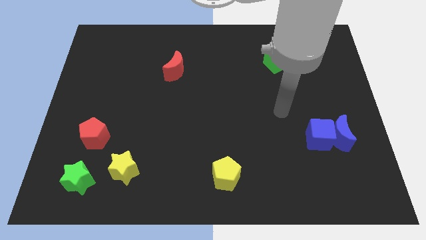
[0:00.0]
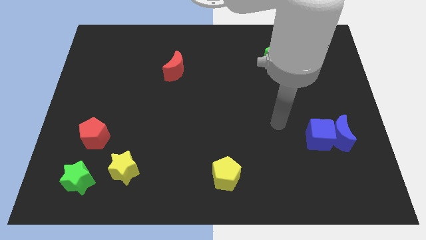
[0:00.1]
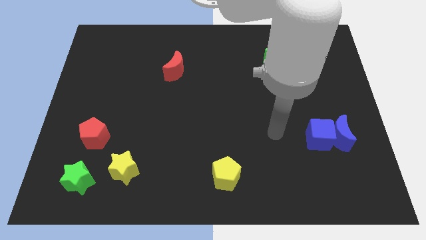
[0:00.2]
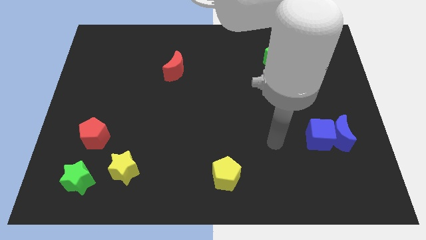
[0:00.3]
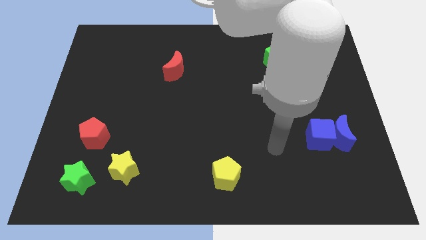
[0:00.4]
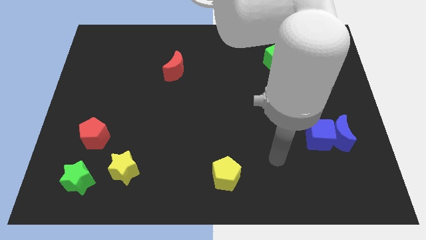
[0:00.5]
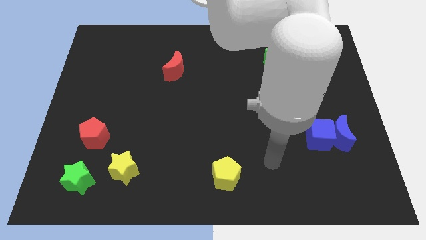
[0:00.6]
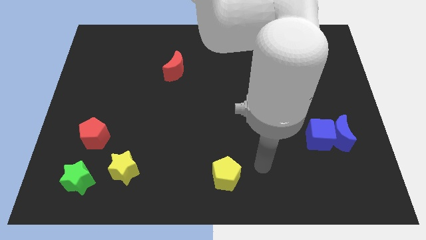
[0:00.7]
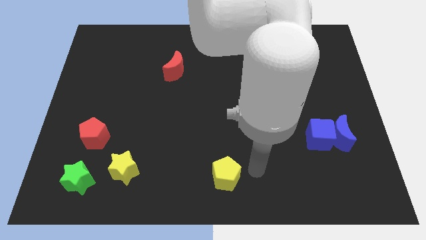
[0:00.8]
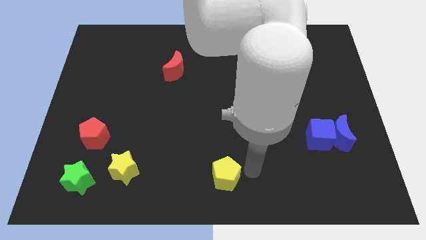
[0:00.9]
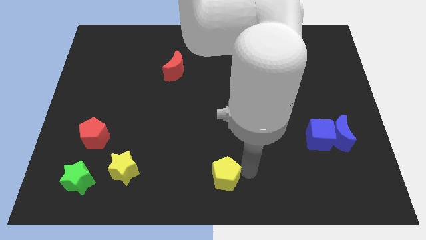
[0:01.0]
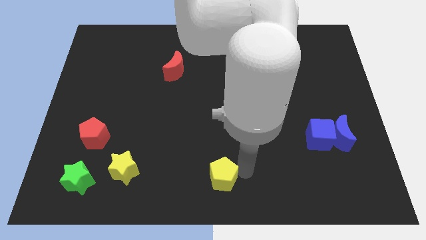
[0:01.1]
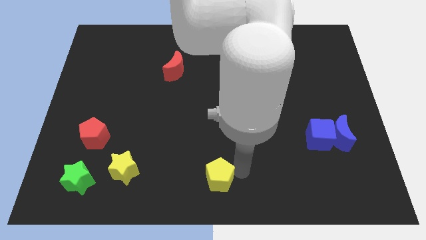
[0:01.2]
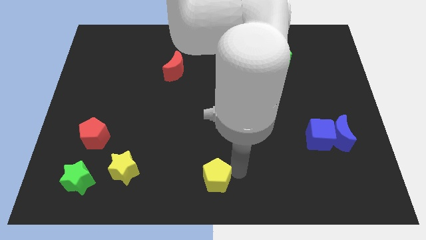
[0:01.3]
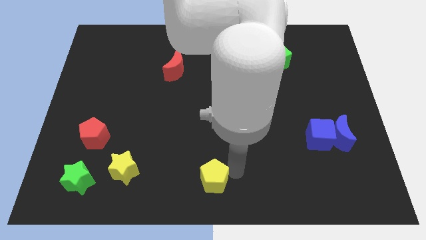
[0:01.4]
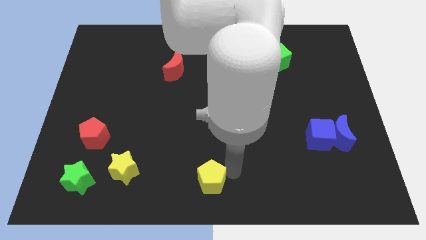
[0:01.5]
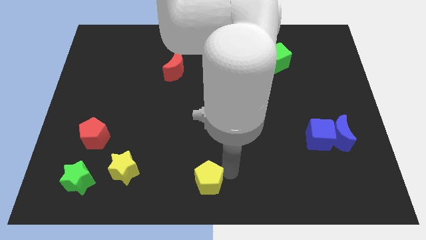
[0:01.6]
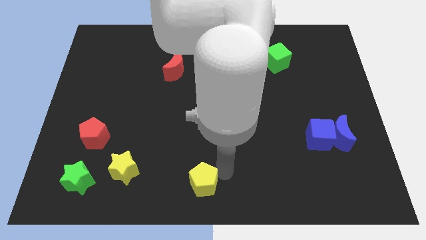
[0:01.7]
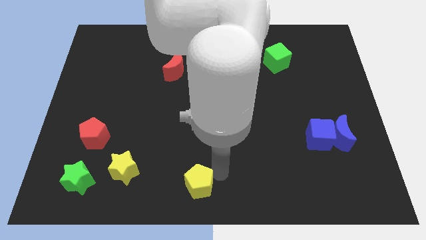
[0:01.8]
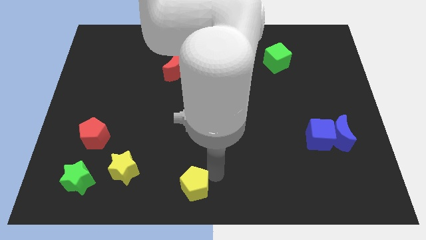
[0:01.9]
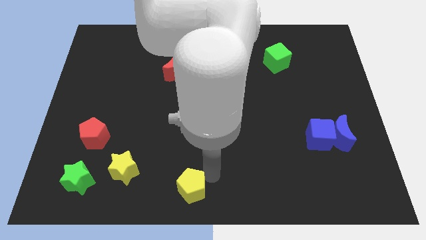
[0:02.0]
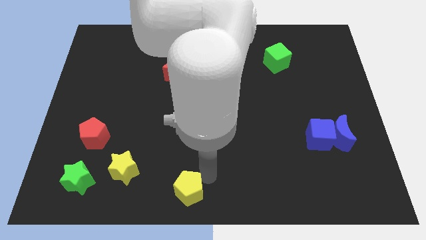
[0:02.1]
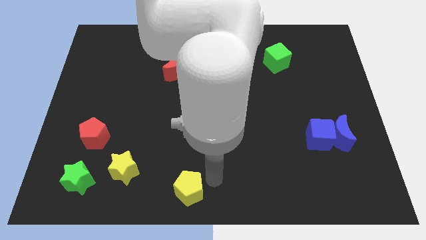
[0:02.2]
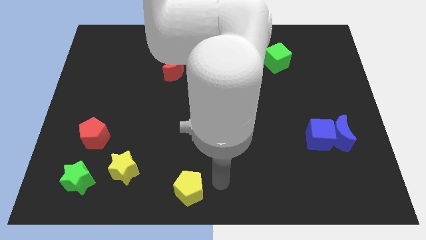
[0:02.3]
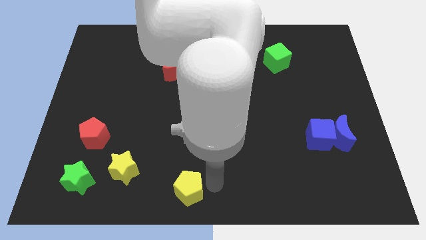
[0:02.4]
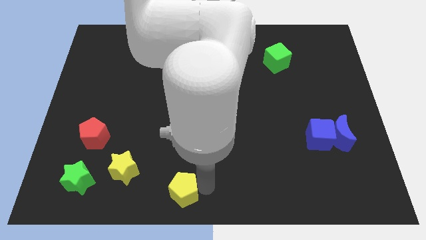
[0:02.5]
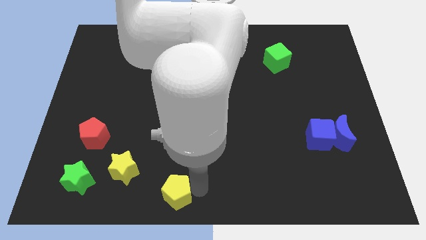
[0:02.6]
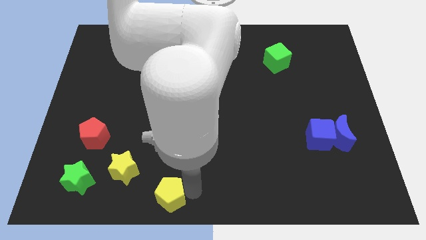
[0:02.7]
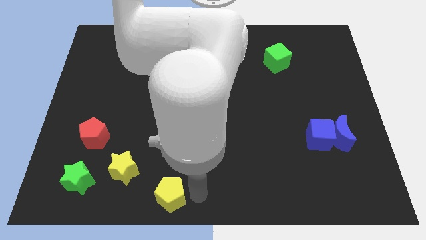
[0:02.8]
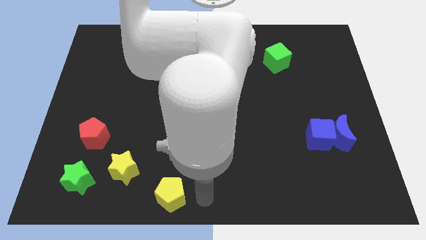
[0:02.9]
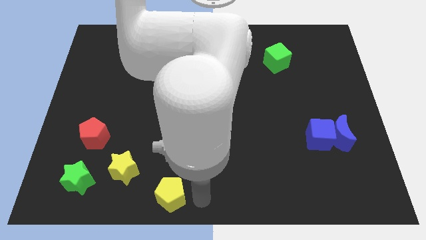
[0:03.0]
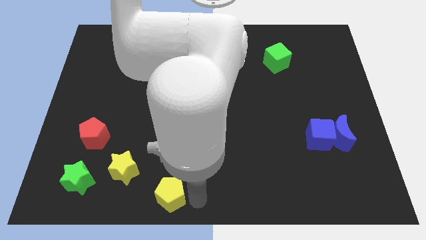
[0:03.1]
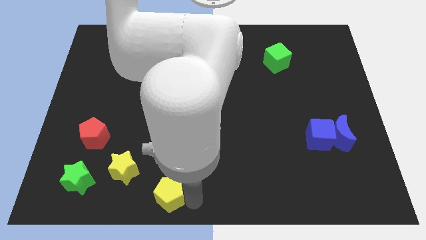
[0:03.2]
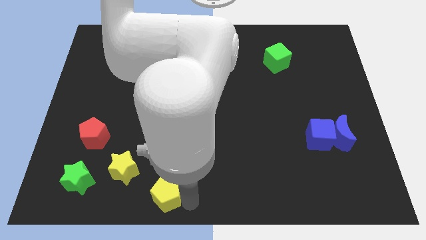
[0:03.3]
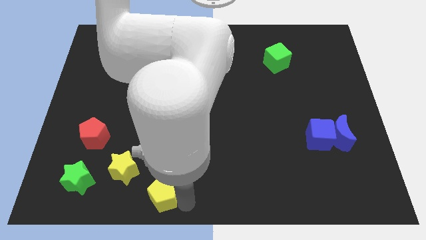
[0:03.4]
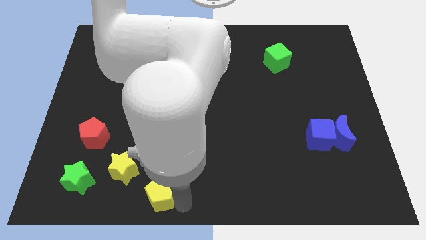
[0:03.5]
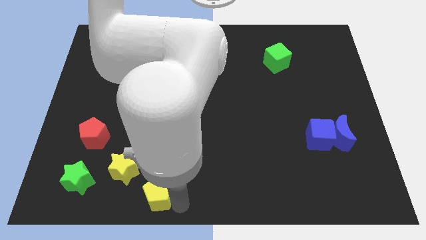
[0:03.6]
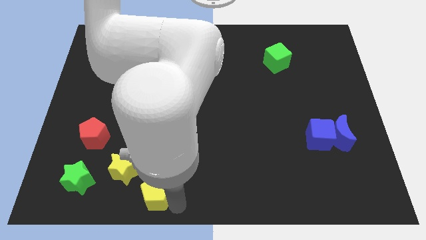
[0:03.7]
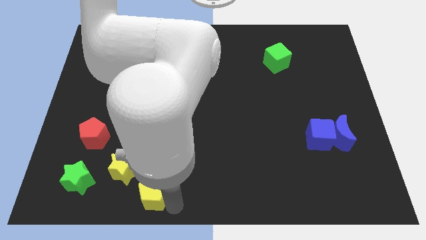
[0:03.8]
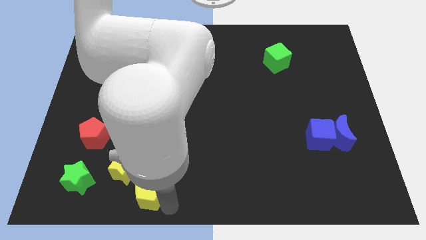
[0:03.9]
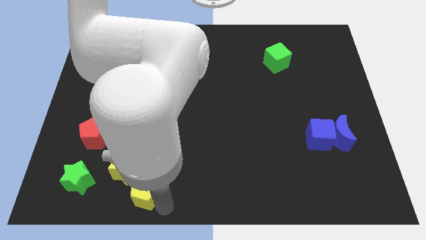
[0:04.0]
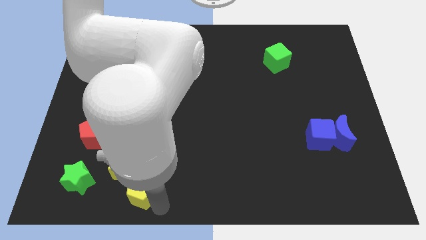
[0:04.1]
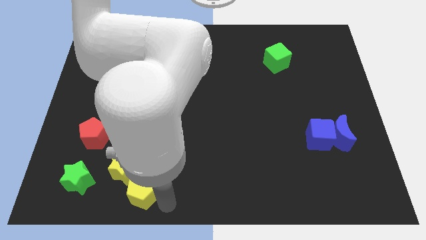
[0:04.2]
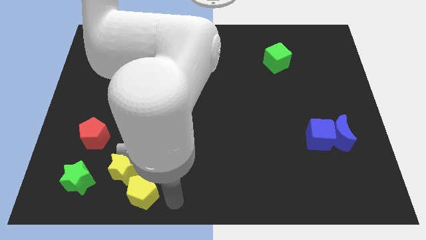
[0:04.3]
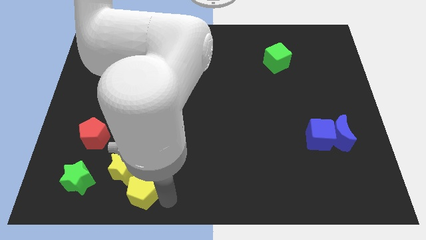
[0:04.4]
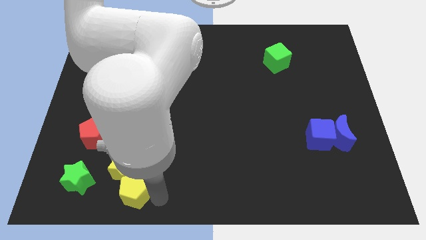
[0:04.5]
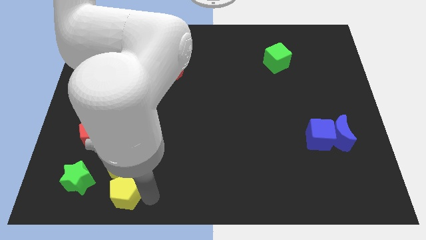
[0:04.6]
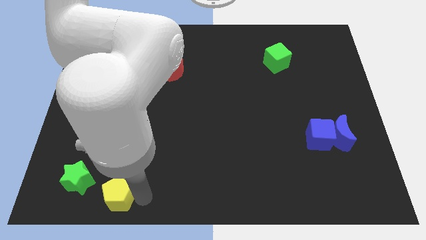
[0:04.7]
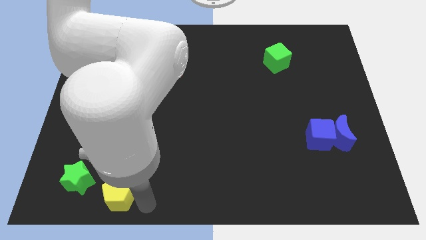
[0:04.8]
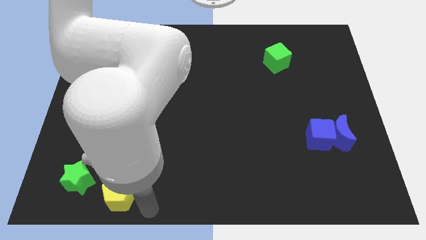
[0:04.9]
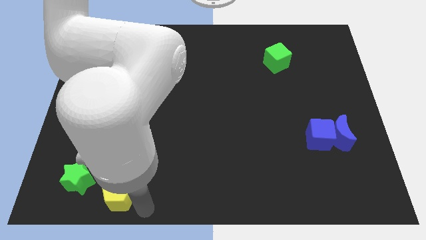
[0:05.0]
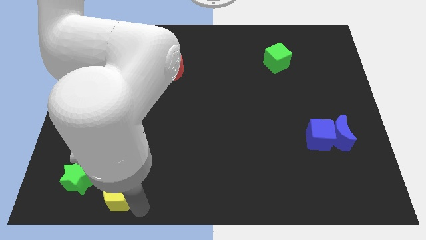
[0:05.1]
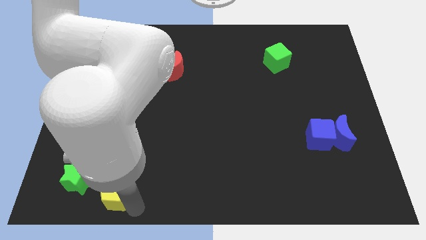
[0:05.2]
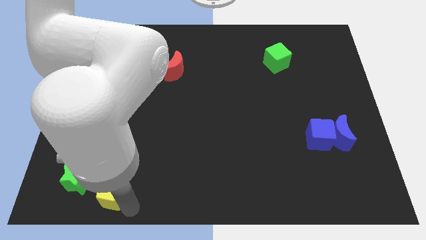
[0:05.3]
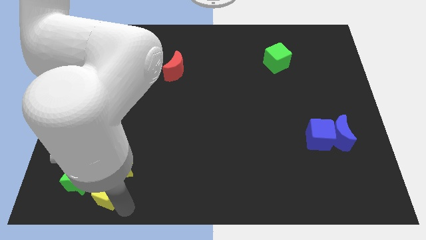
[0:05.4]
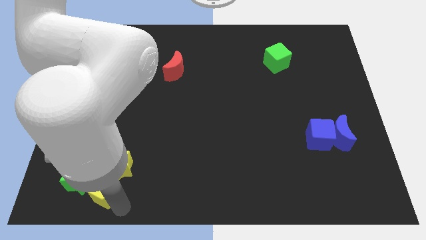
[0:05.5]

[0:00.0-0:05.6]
push the yellow pentagon next to the green star
